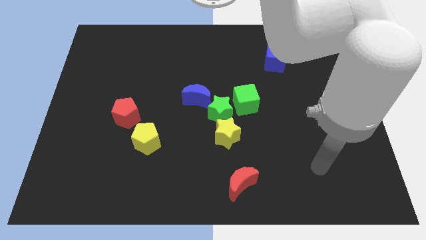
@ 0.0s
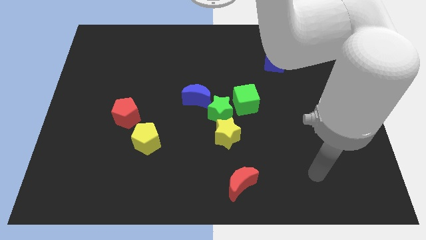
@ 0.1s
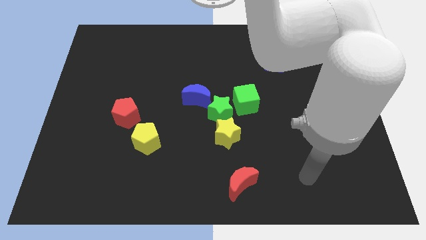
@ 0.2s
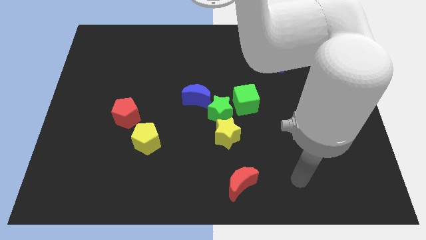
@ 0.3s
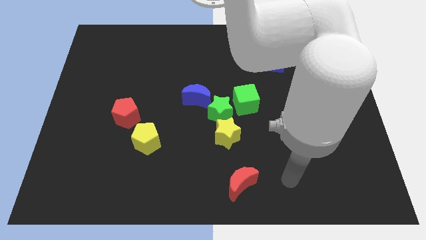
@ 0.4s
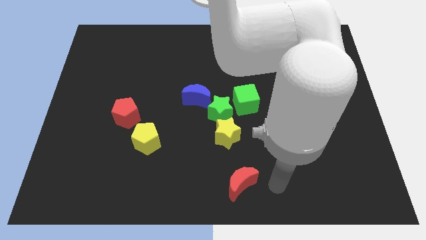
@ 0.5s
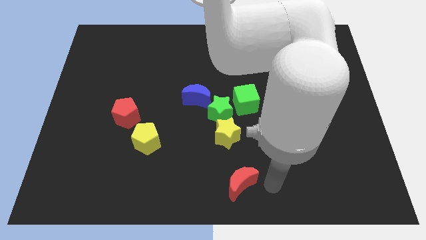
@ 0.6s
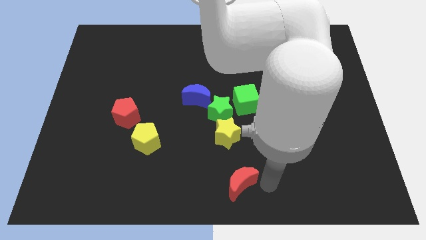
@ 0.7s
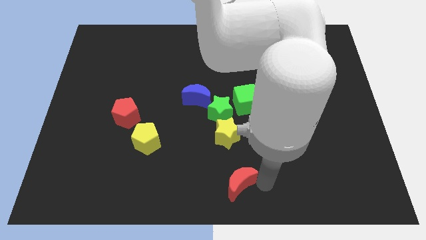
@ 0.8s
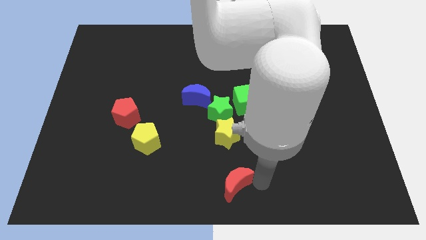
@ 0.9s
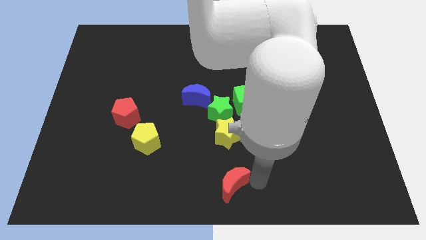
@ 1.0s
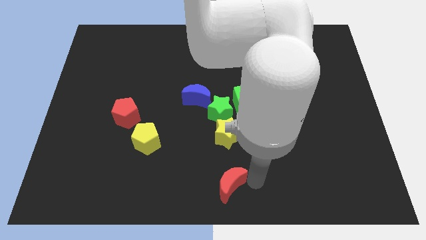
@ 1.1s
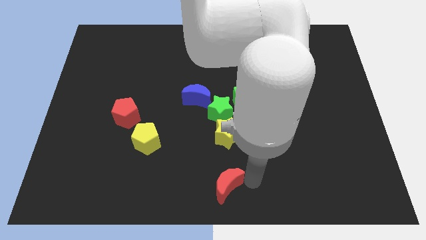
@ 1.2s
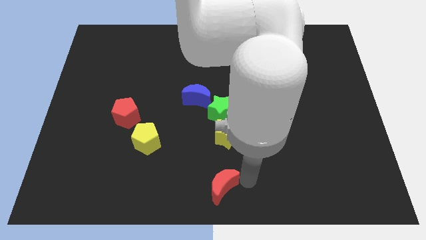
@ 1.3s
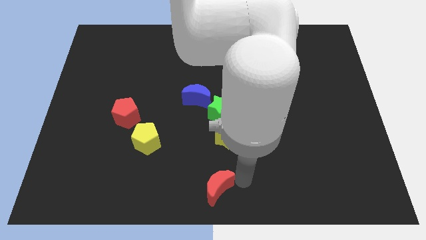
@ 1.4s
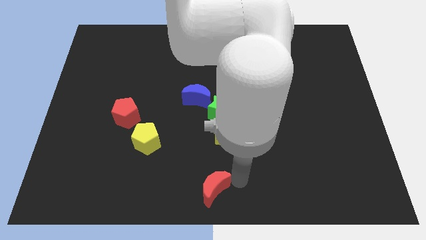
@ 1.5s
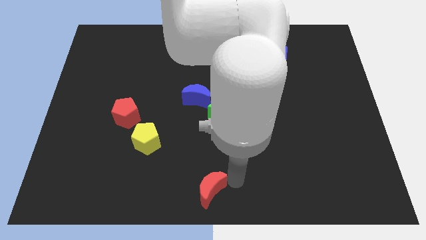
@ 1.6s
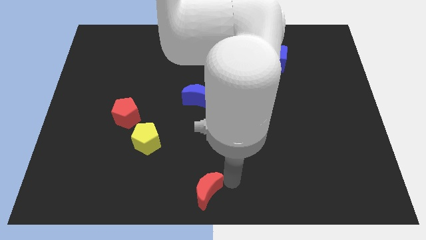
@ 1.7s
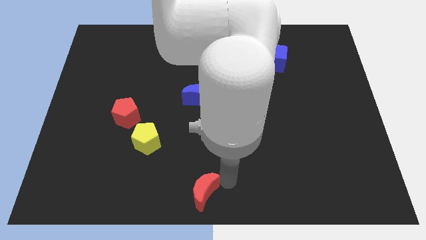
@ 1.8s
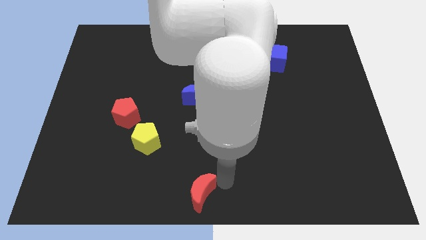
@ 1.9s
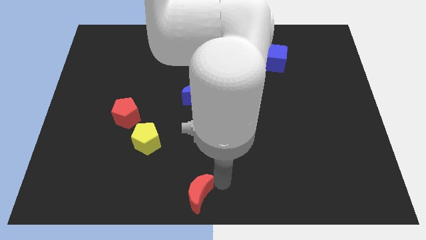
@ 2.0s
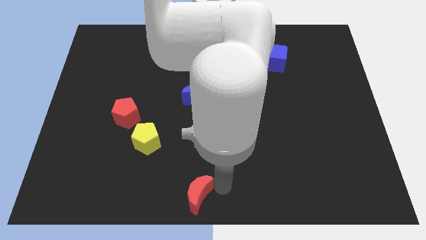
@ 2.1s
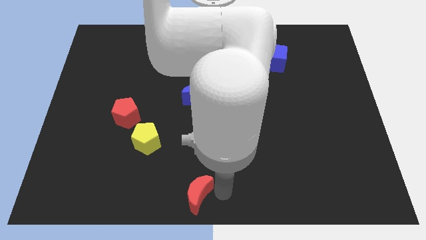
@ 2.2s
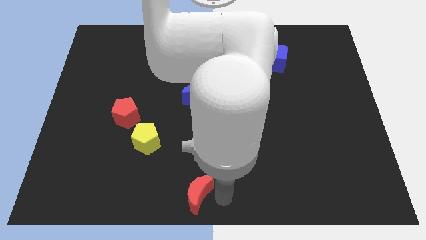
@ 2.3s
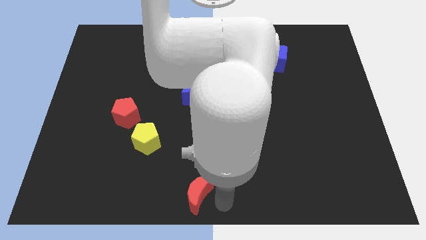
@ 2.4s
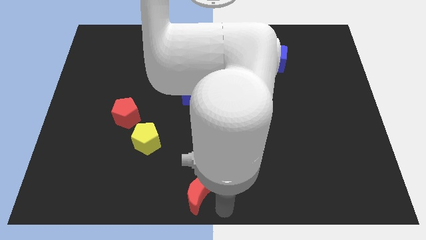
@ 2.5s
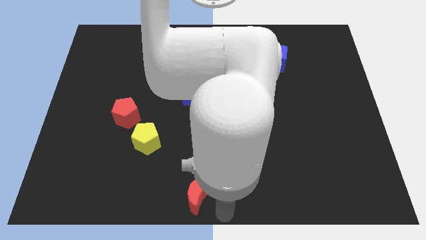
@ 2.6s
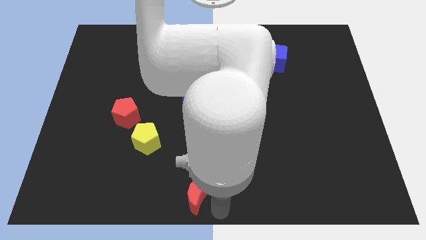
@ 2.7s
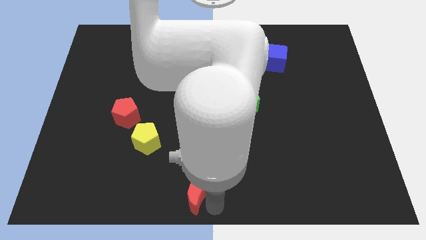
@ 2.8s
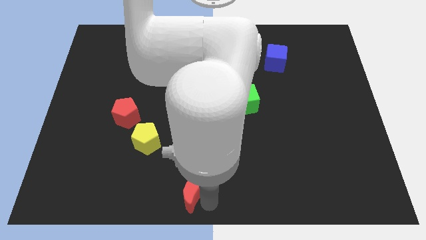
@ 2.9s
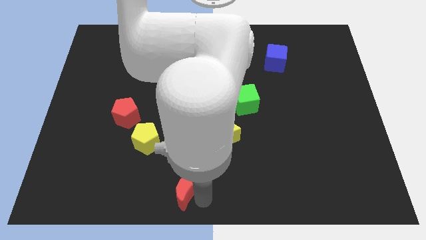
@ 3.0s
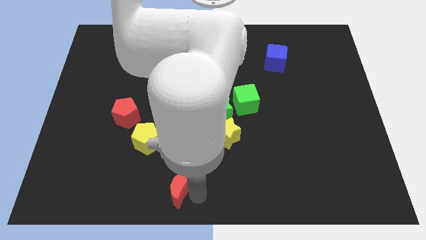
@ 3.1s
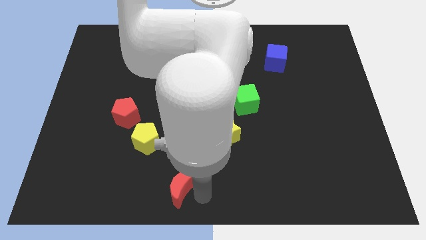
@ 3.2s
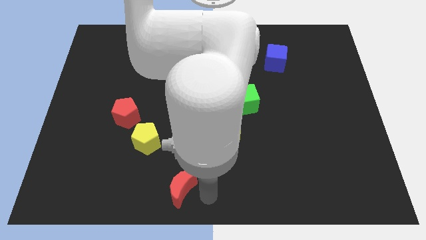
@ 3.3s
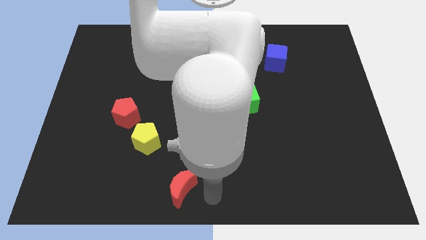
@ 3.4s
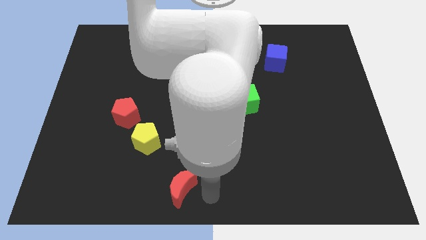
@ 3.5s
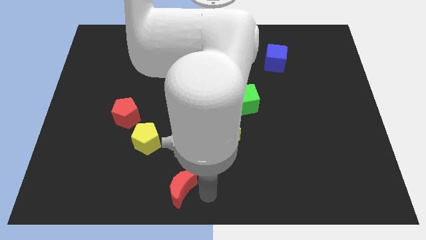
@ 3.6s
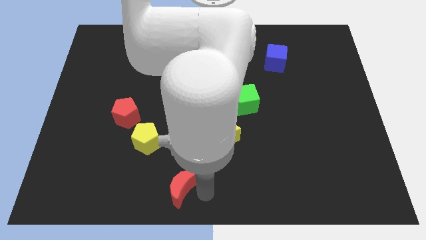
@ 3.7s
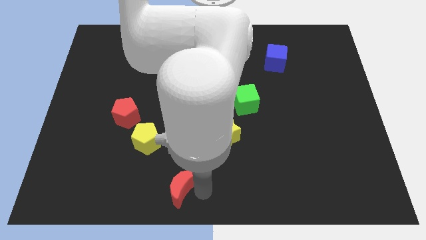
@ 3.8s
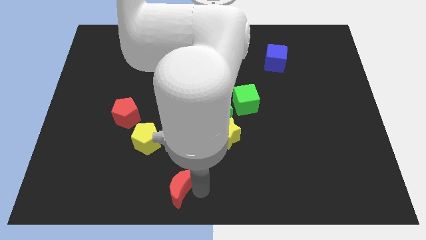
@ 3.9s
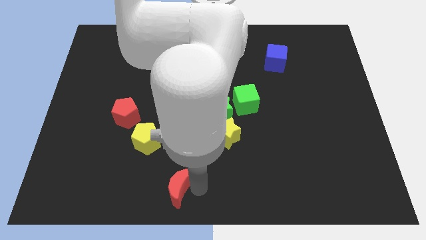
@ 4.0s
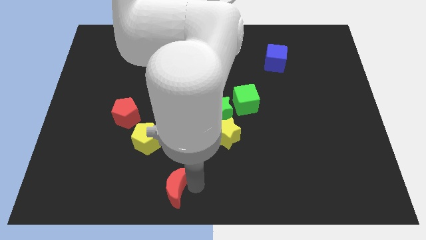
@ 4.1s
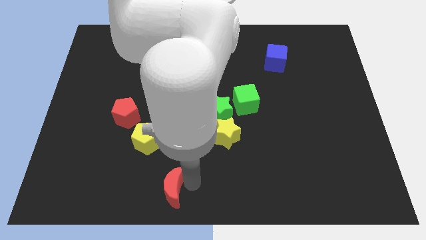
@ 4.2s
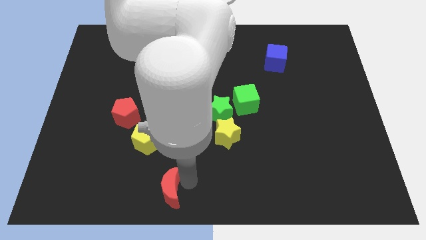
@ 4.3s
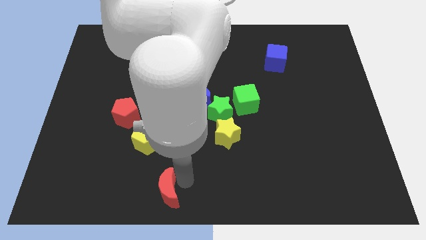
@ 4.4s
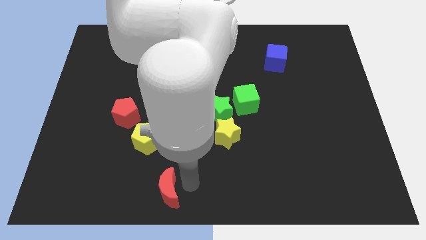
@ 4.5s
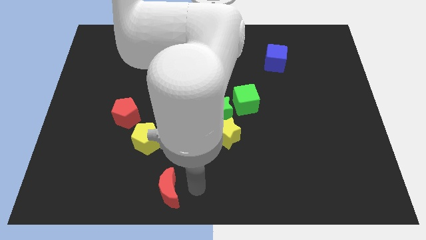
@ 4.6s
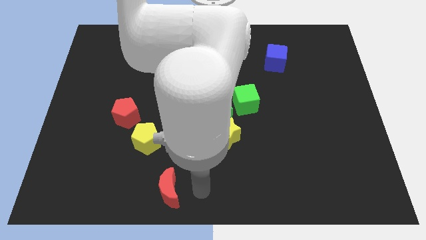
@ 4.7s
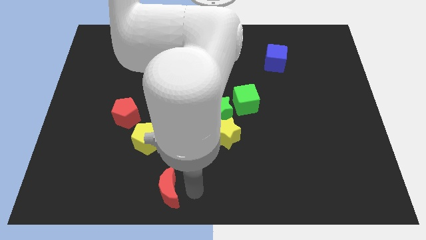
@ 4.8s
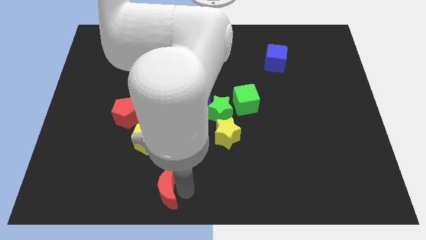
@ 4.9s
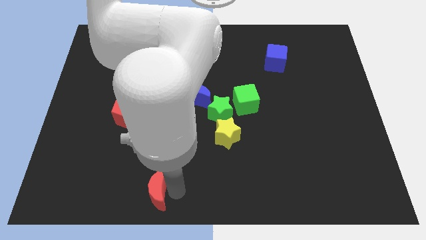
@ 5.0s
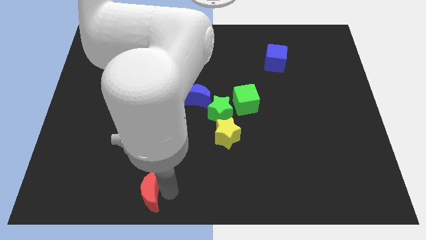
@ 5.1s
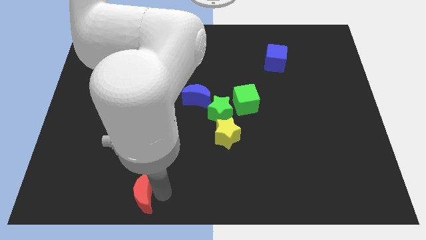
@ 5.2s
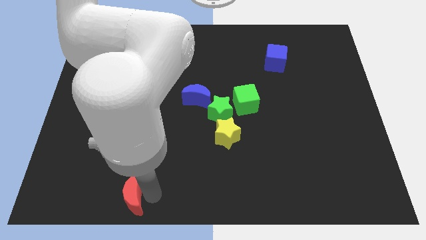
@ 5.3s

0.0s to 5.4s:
push the red moon left

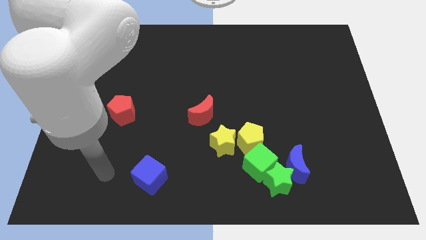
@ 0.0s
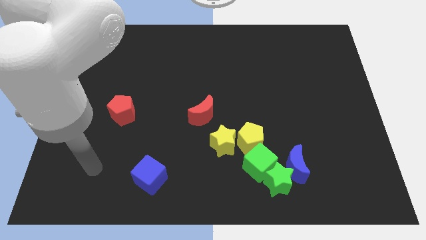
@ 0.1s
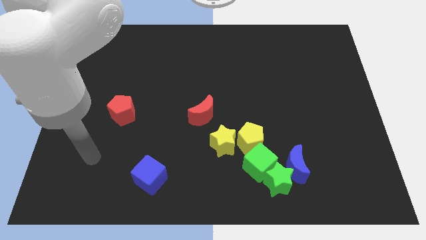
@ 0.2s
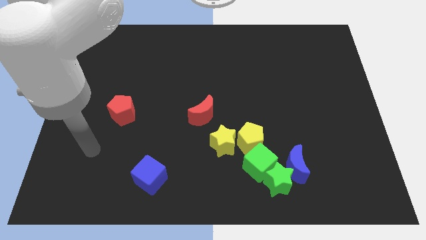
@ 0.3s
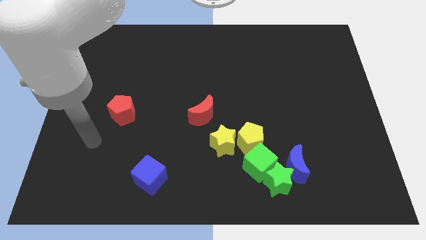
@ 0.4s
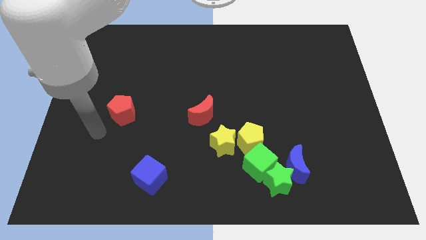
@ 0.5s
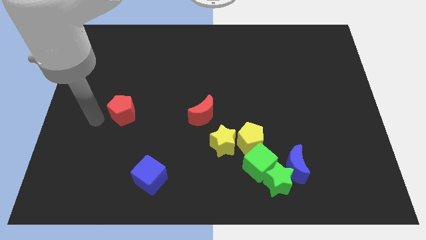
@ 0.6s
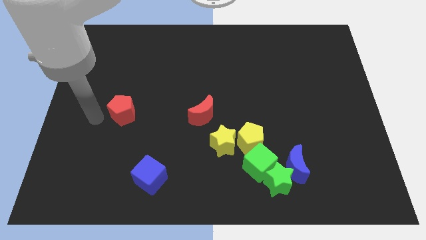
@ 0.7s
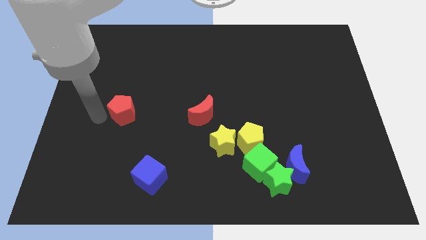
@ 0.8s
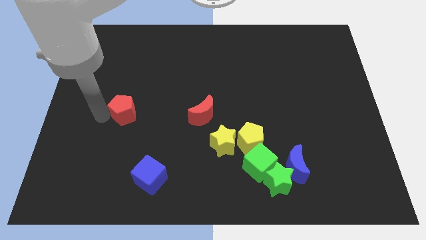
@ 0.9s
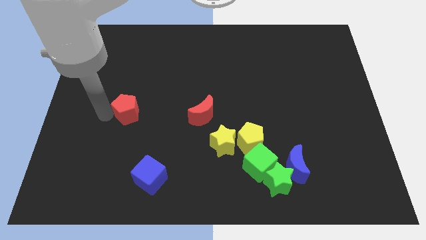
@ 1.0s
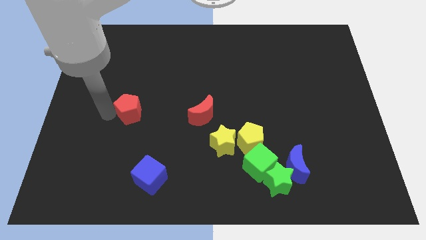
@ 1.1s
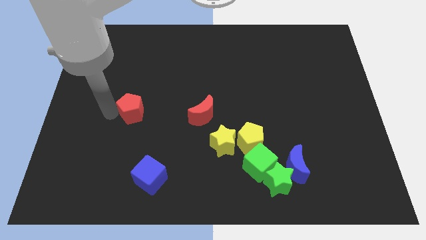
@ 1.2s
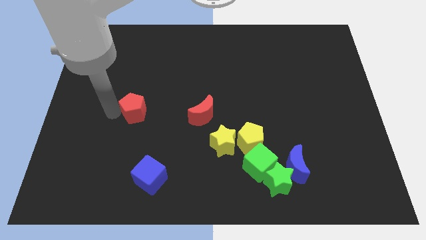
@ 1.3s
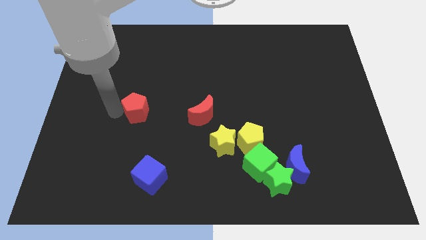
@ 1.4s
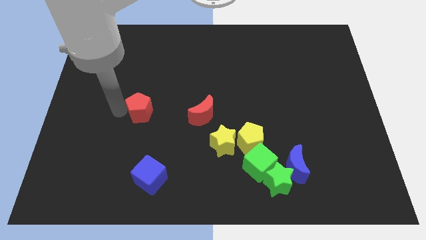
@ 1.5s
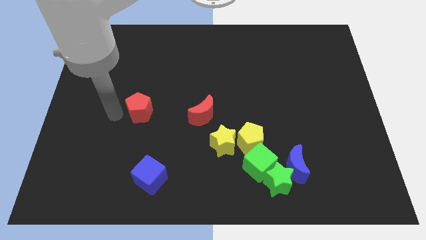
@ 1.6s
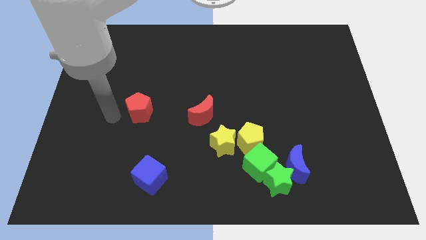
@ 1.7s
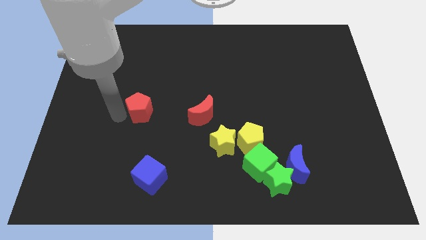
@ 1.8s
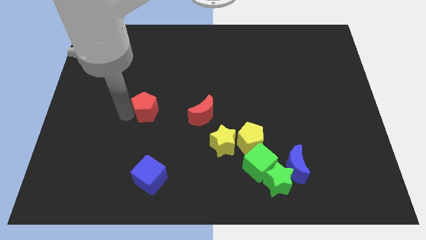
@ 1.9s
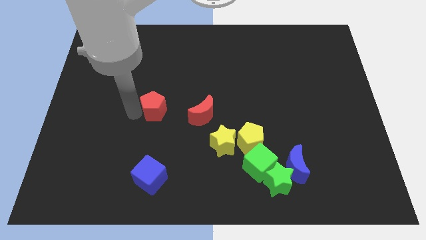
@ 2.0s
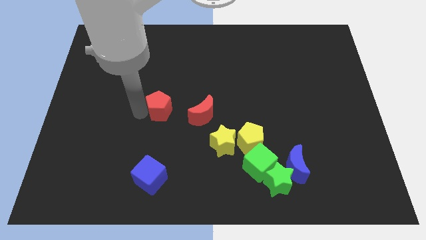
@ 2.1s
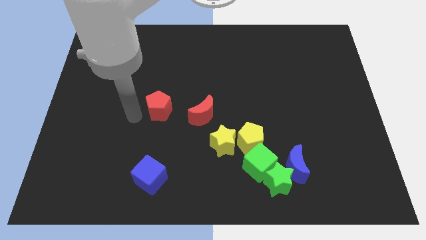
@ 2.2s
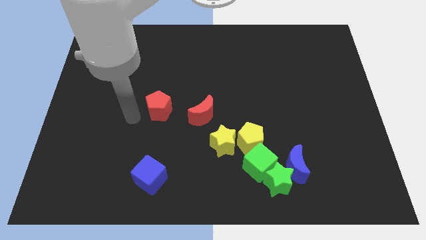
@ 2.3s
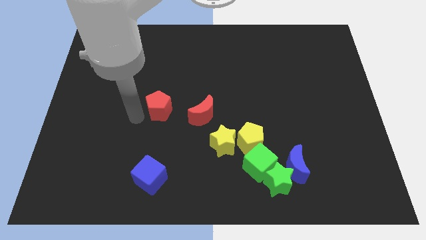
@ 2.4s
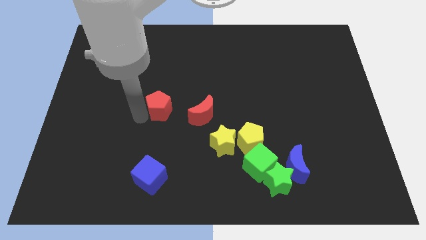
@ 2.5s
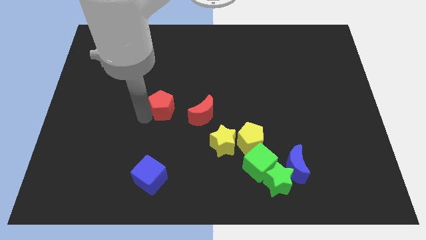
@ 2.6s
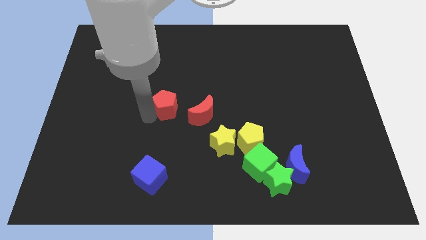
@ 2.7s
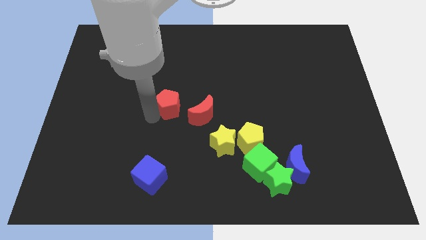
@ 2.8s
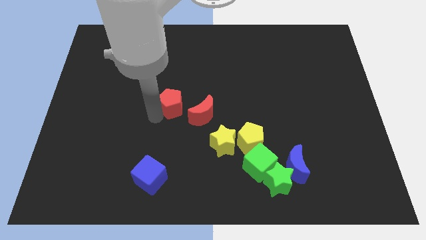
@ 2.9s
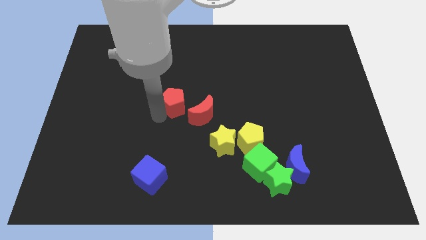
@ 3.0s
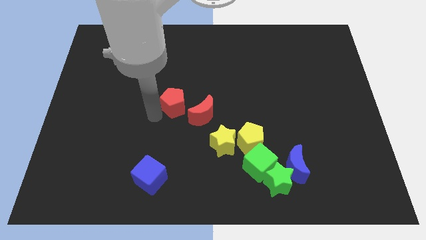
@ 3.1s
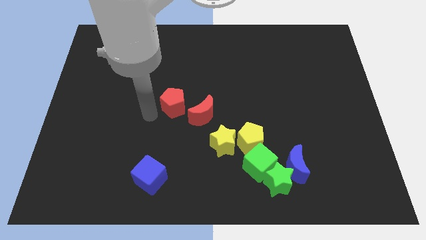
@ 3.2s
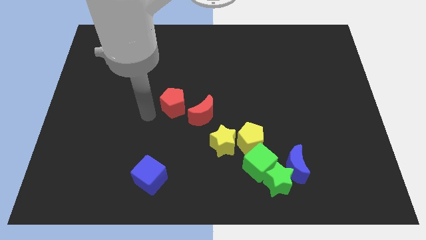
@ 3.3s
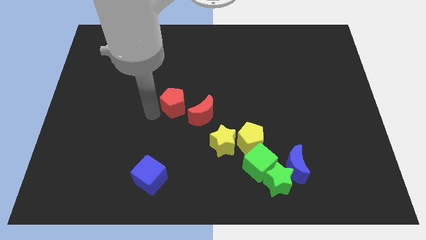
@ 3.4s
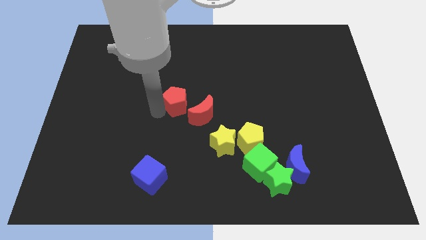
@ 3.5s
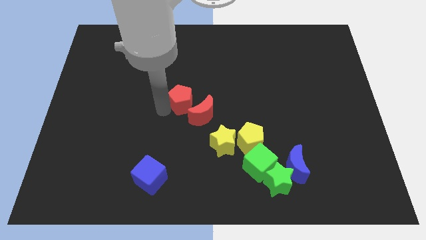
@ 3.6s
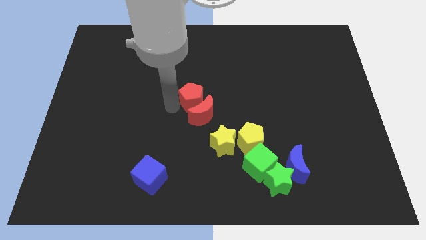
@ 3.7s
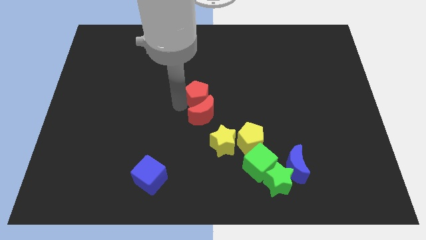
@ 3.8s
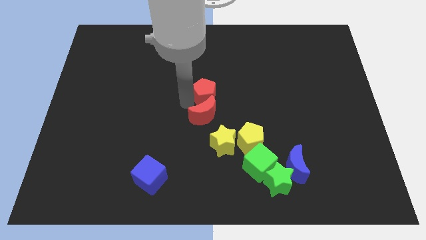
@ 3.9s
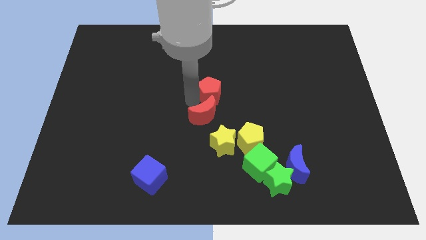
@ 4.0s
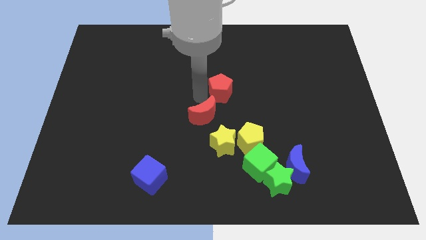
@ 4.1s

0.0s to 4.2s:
slide the red pentagon right
